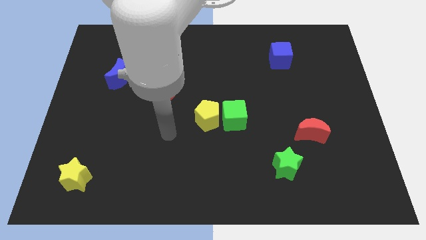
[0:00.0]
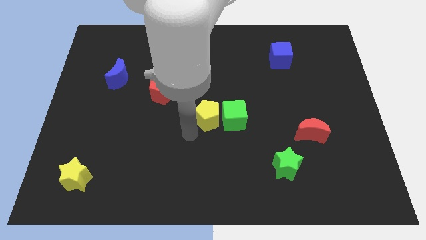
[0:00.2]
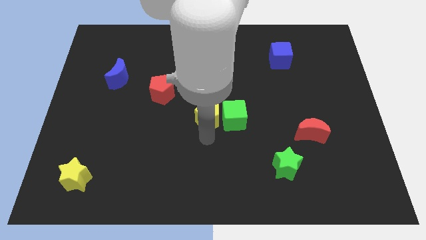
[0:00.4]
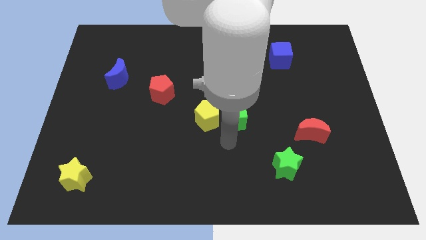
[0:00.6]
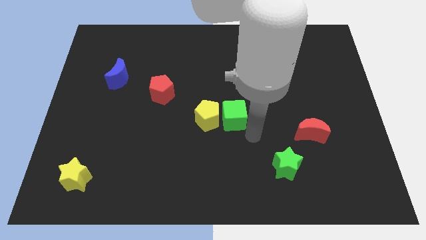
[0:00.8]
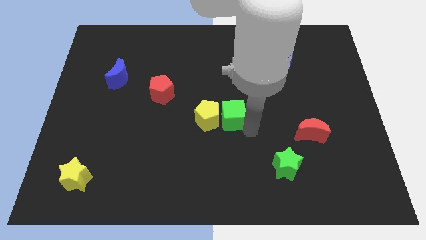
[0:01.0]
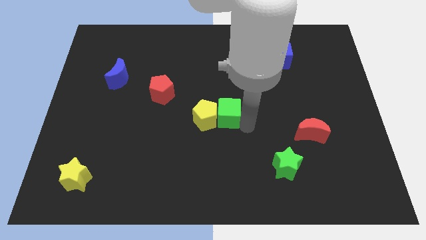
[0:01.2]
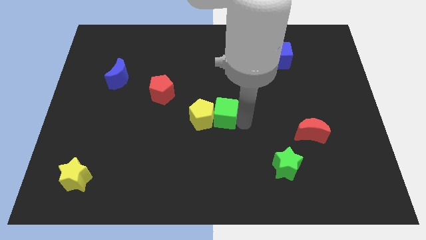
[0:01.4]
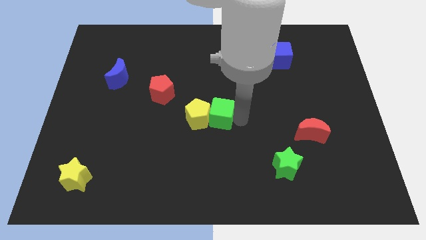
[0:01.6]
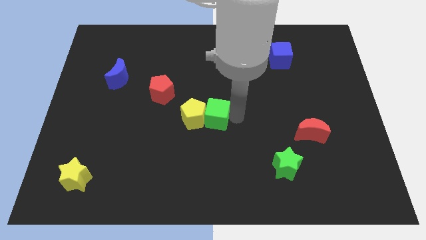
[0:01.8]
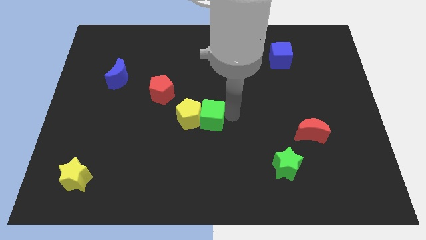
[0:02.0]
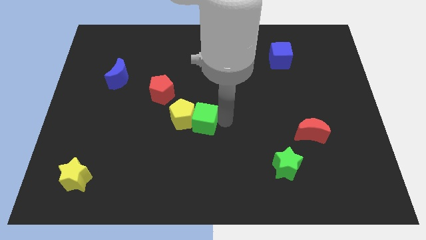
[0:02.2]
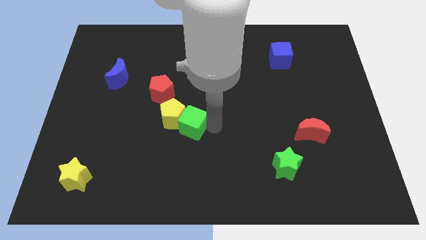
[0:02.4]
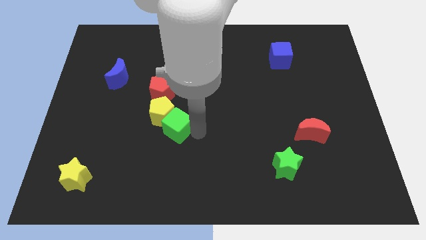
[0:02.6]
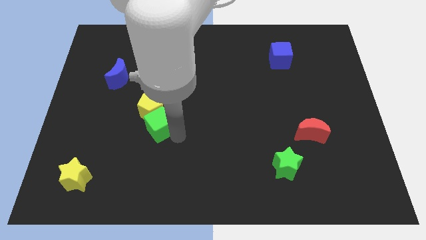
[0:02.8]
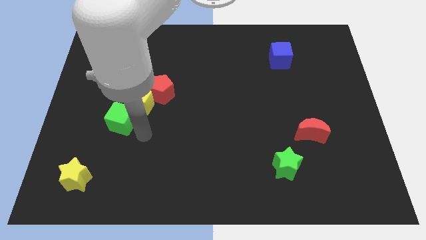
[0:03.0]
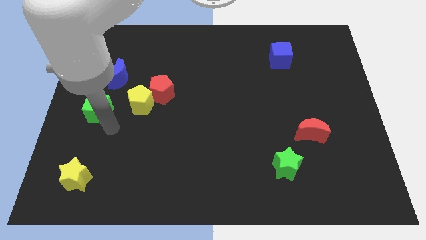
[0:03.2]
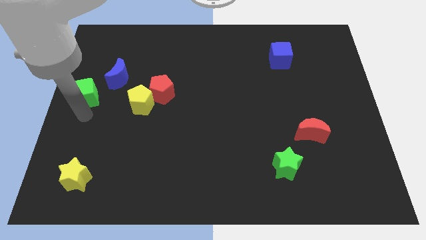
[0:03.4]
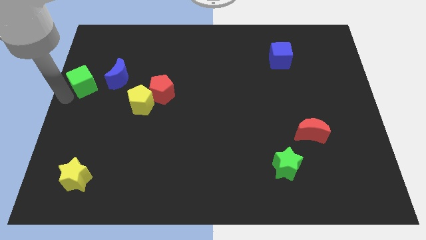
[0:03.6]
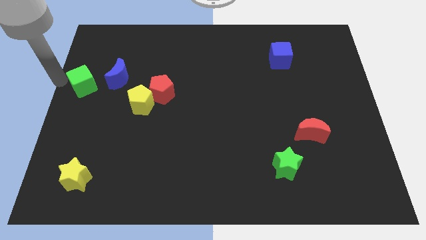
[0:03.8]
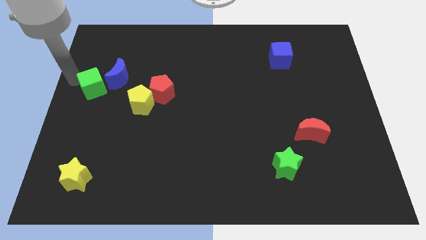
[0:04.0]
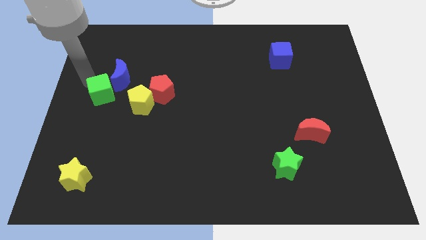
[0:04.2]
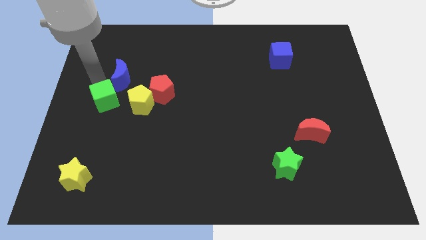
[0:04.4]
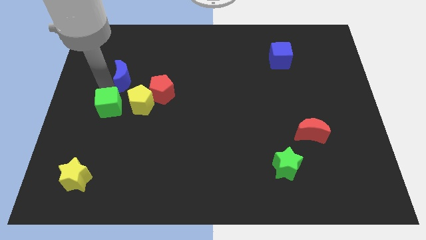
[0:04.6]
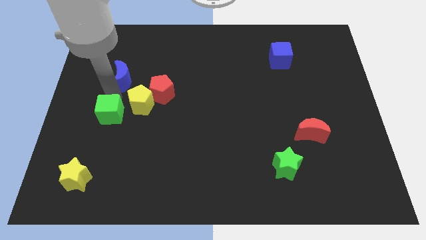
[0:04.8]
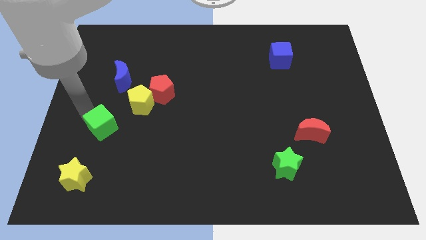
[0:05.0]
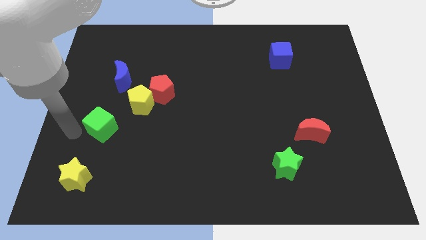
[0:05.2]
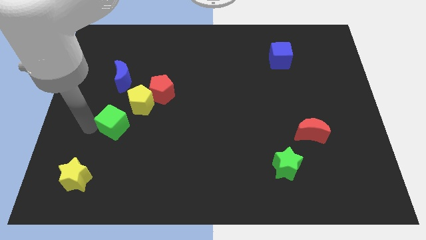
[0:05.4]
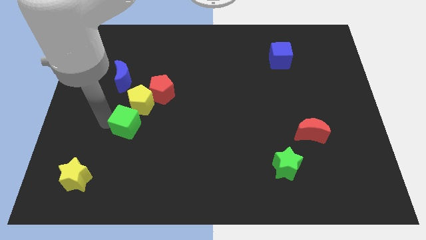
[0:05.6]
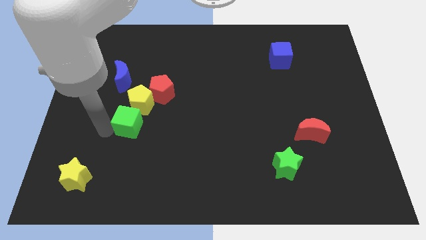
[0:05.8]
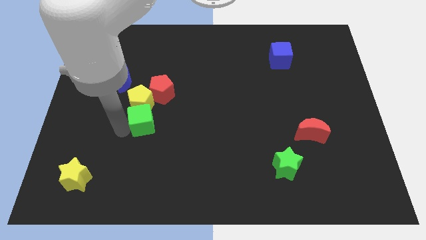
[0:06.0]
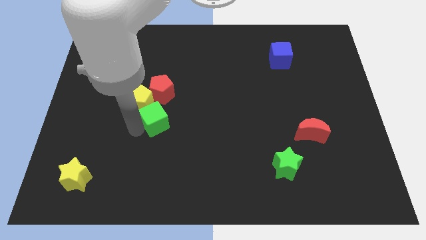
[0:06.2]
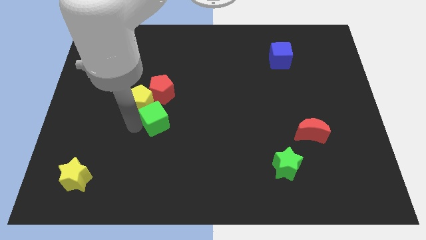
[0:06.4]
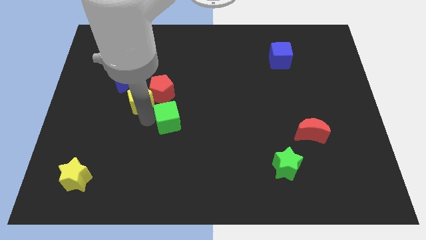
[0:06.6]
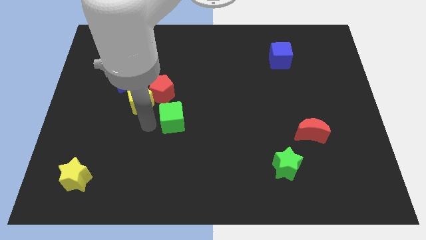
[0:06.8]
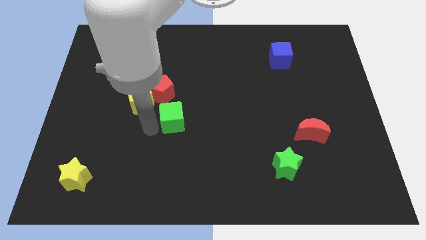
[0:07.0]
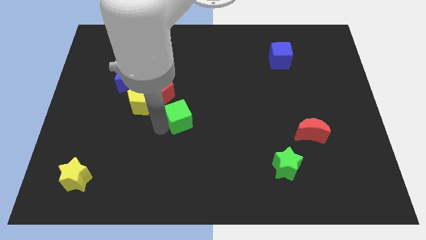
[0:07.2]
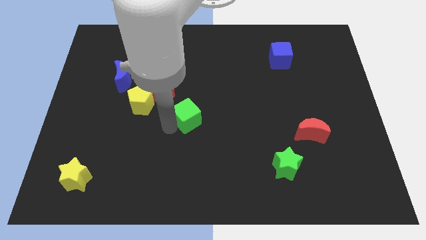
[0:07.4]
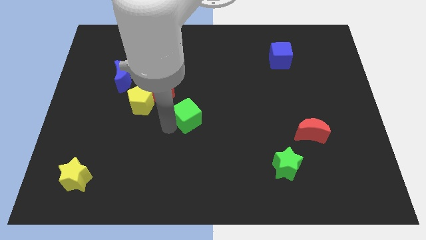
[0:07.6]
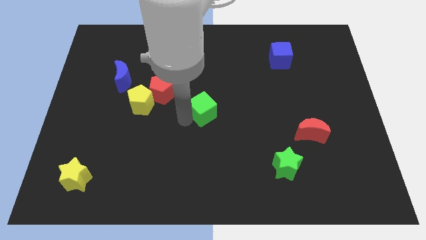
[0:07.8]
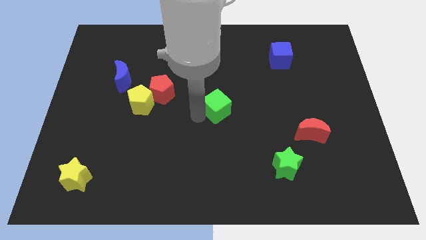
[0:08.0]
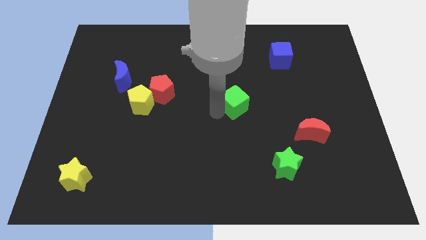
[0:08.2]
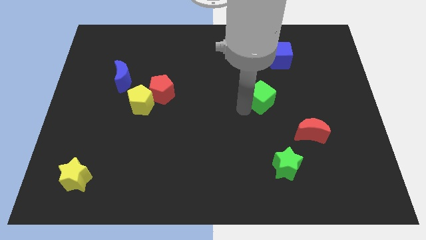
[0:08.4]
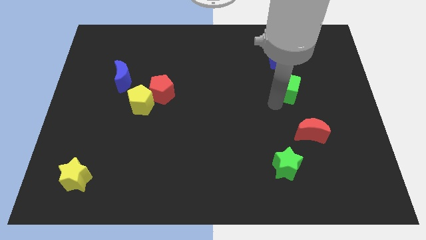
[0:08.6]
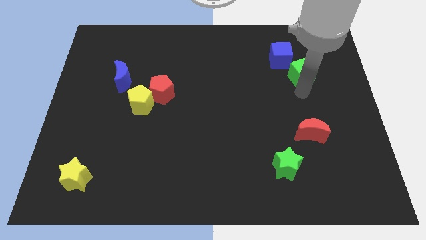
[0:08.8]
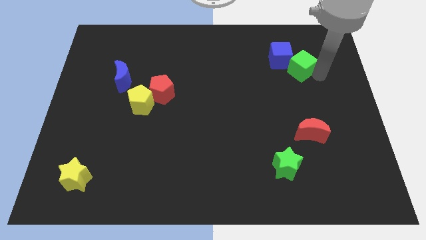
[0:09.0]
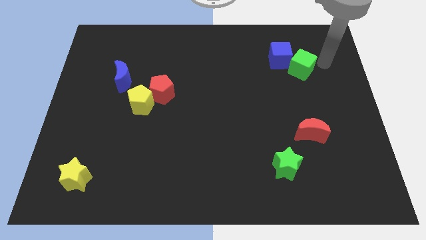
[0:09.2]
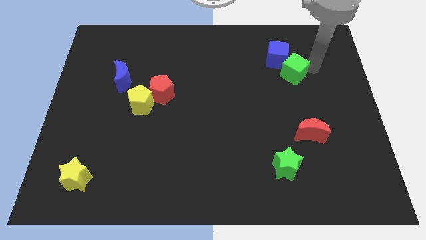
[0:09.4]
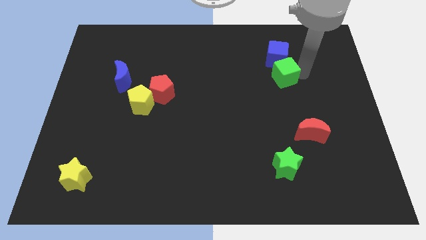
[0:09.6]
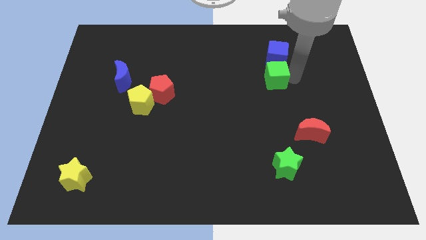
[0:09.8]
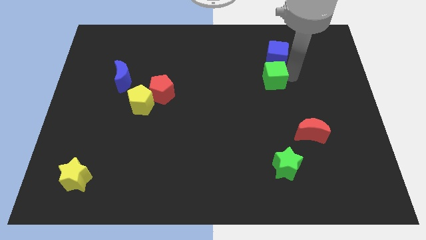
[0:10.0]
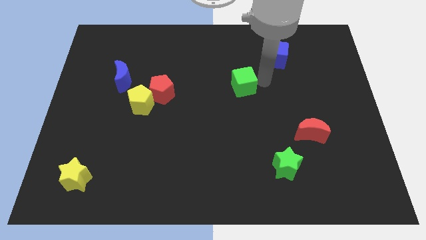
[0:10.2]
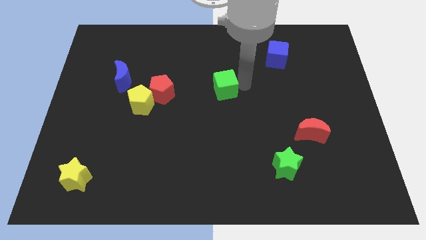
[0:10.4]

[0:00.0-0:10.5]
slightly move the green cube upwards and left diagonally

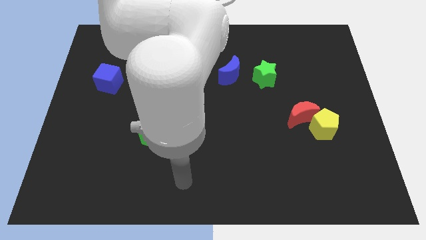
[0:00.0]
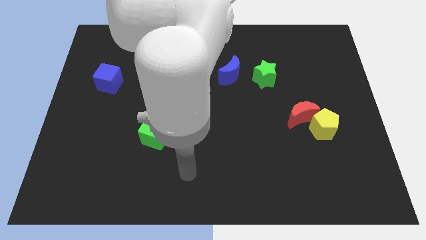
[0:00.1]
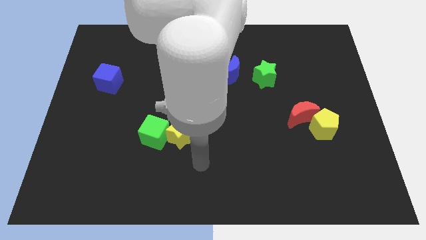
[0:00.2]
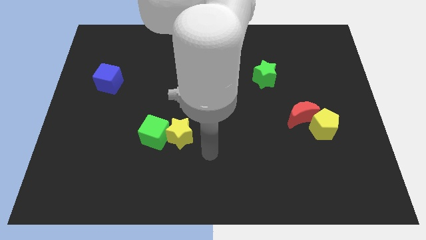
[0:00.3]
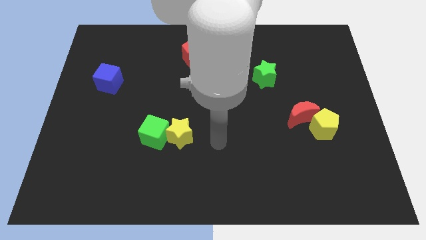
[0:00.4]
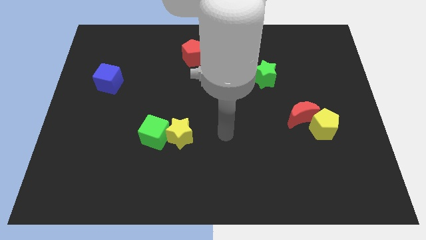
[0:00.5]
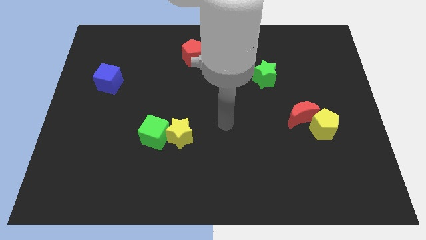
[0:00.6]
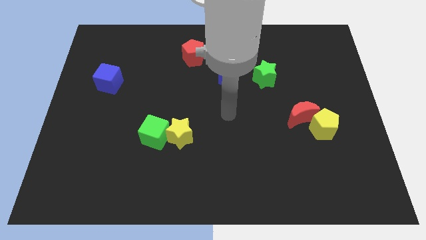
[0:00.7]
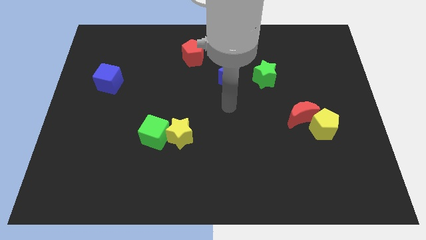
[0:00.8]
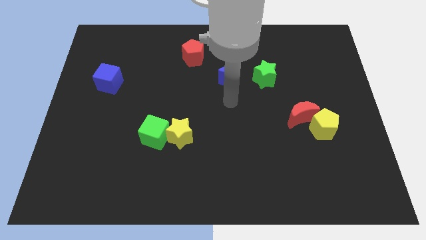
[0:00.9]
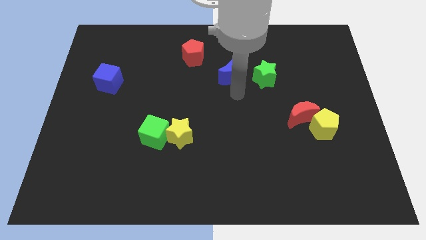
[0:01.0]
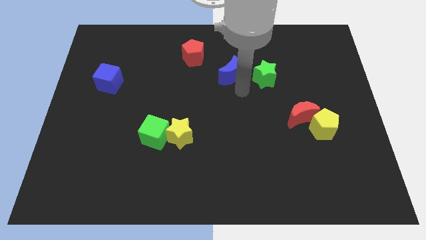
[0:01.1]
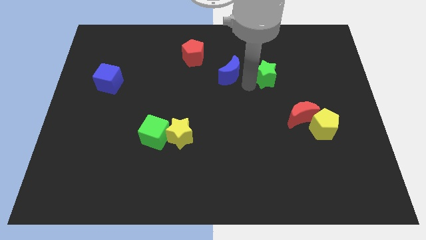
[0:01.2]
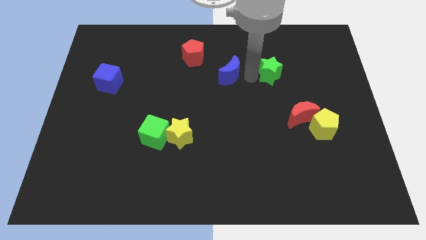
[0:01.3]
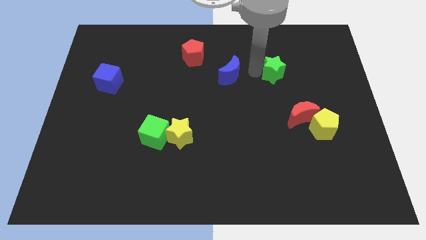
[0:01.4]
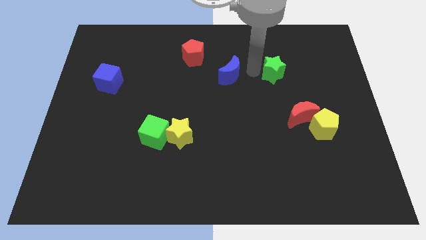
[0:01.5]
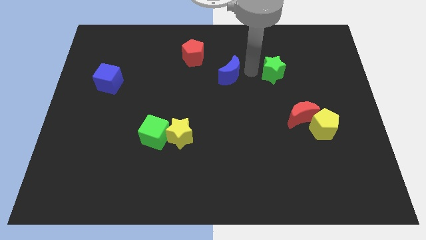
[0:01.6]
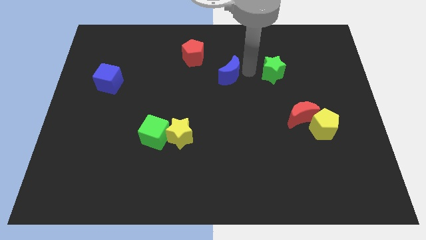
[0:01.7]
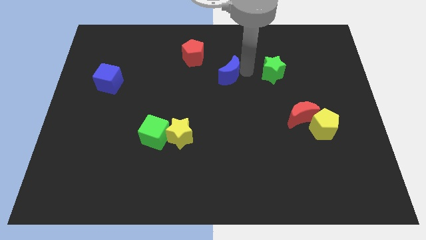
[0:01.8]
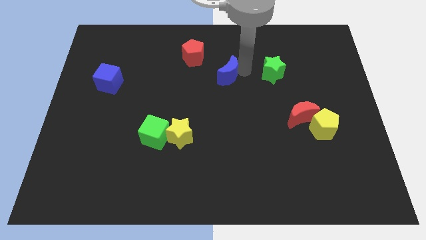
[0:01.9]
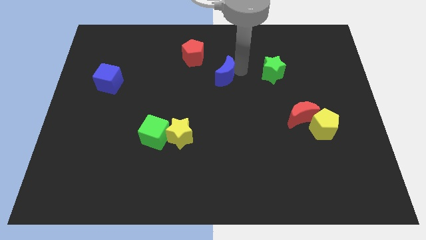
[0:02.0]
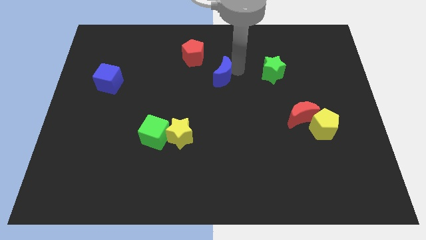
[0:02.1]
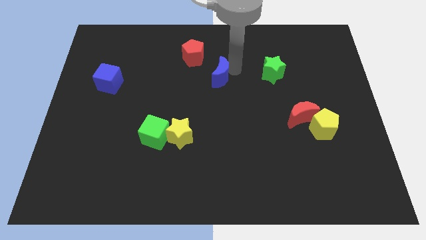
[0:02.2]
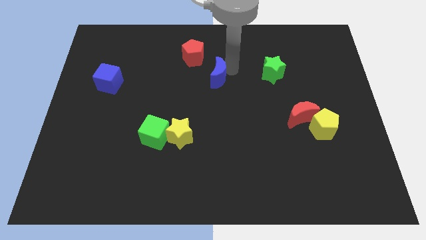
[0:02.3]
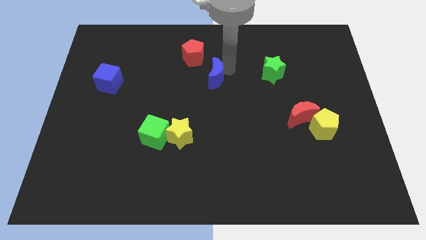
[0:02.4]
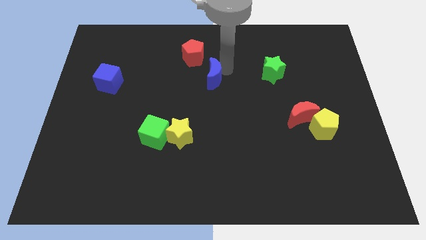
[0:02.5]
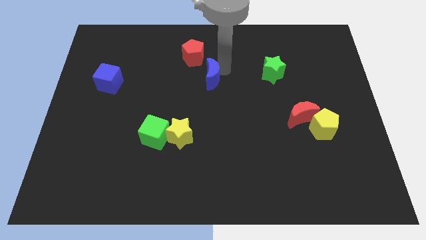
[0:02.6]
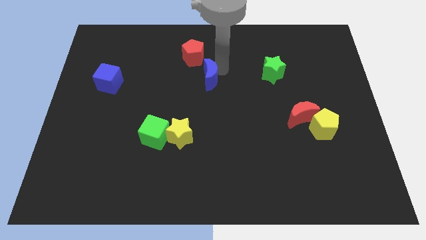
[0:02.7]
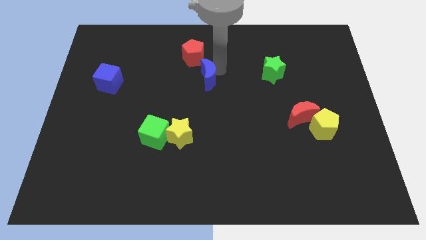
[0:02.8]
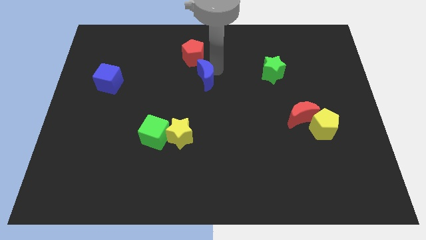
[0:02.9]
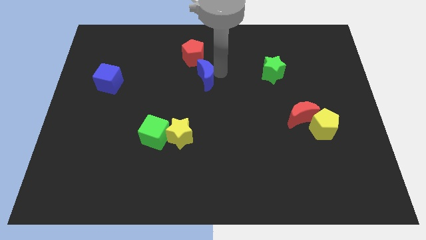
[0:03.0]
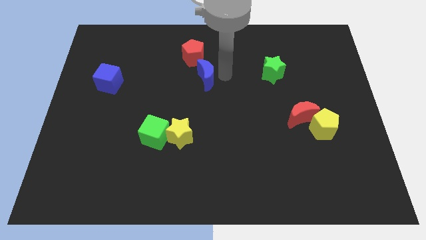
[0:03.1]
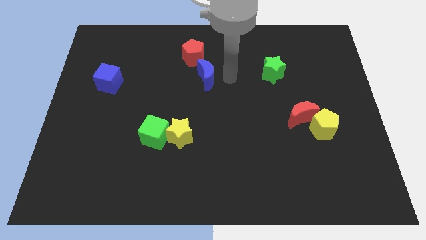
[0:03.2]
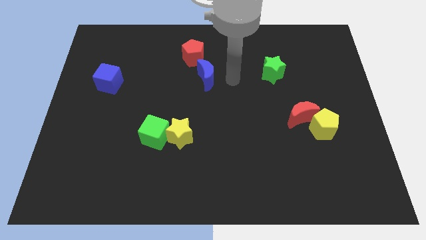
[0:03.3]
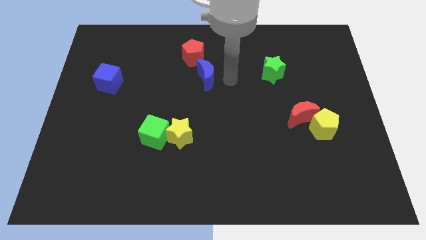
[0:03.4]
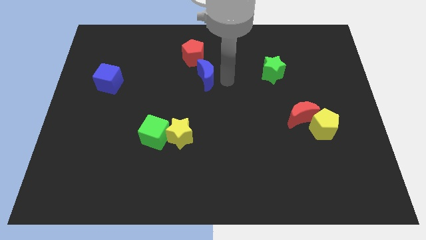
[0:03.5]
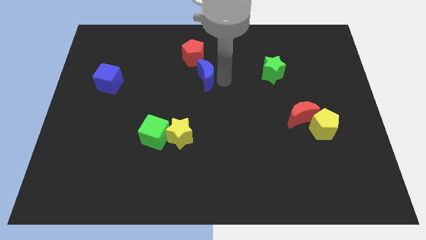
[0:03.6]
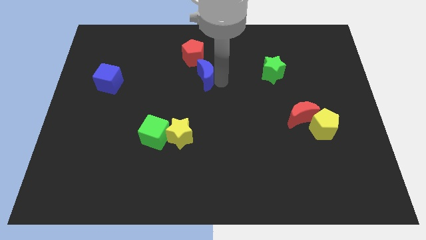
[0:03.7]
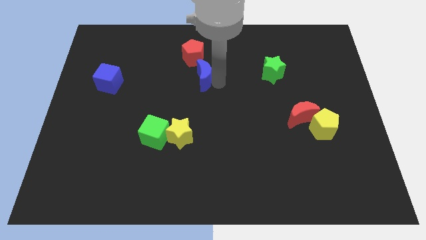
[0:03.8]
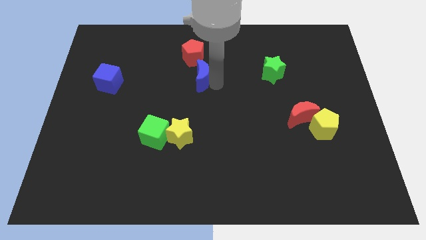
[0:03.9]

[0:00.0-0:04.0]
push the blue moon to the left a little
